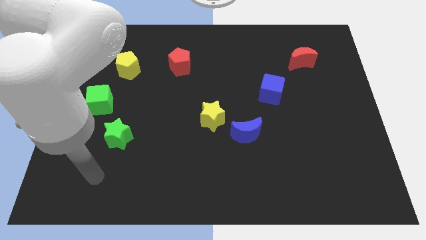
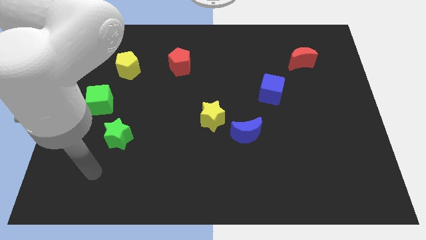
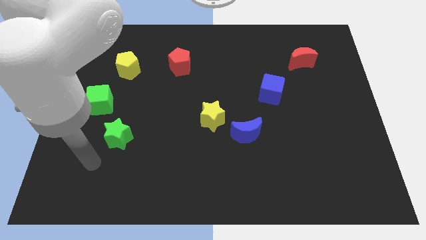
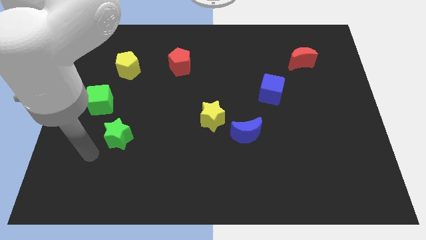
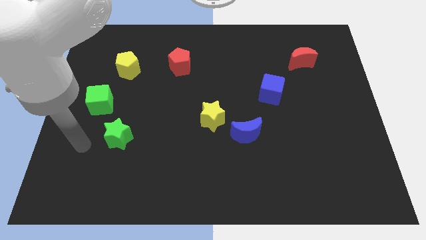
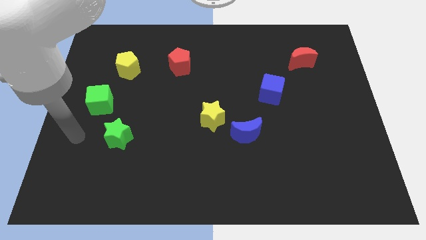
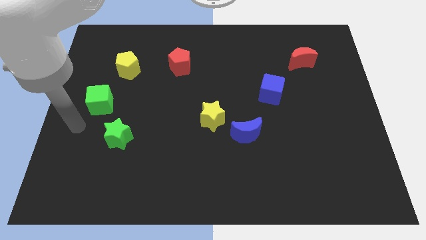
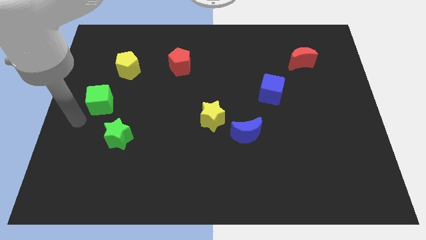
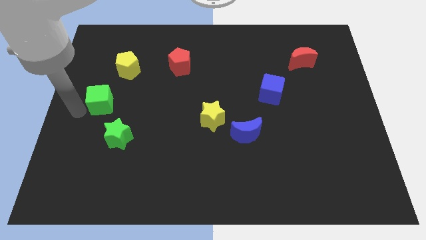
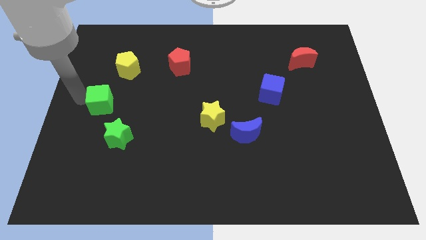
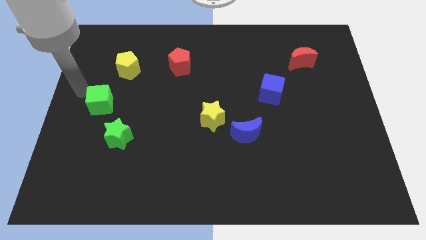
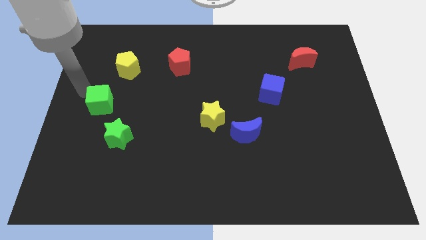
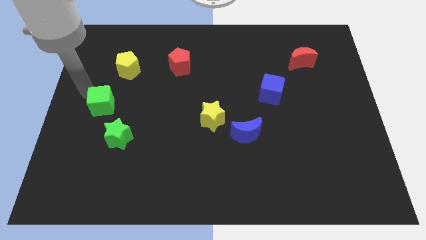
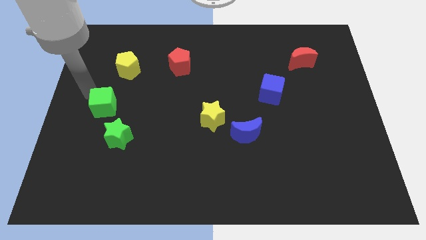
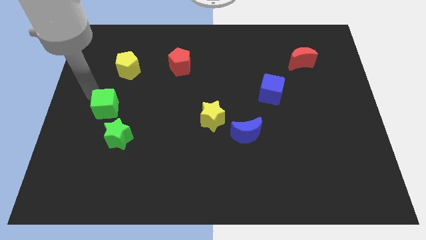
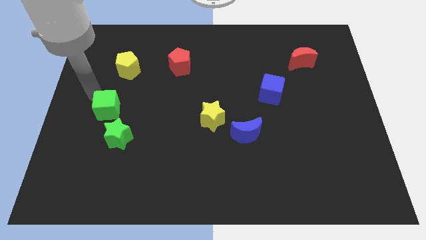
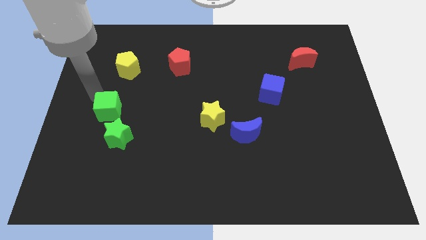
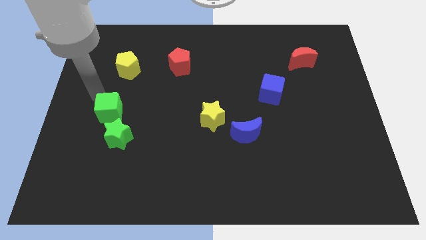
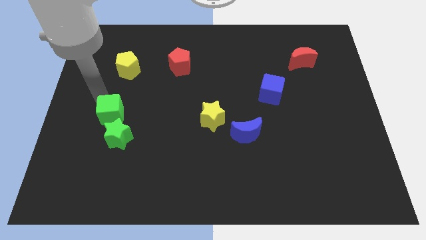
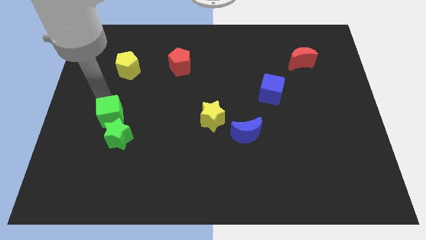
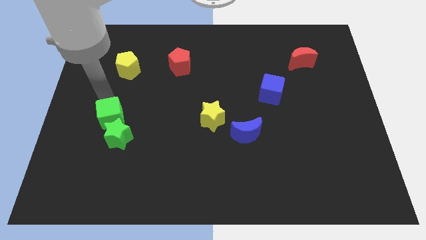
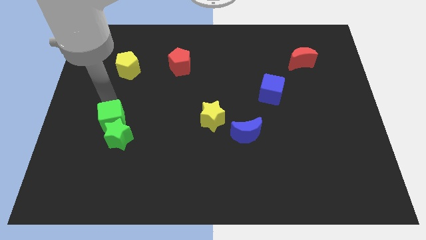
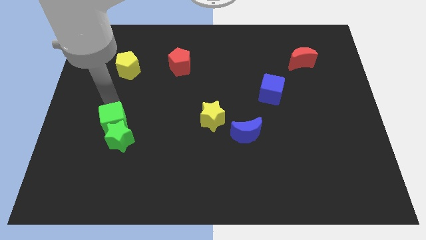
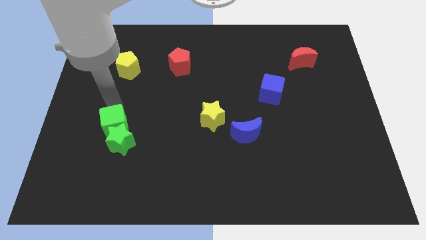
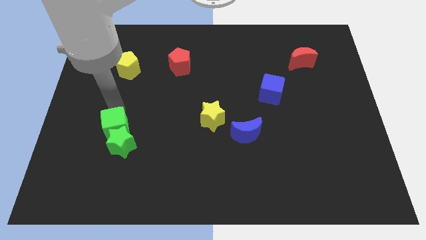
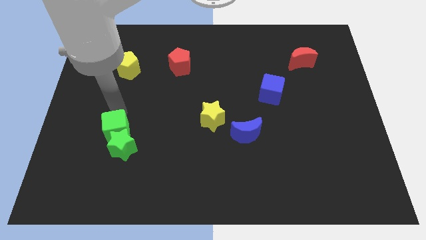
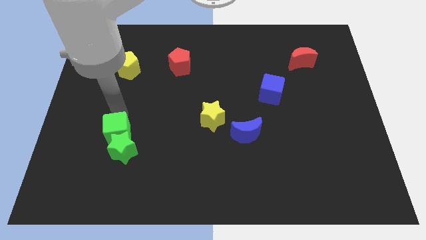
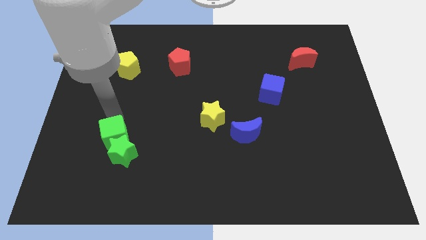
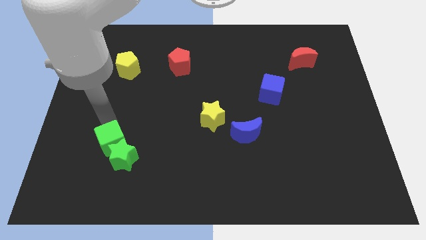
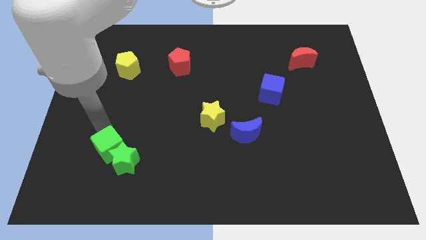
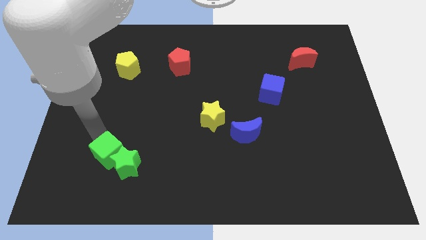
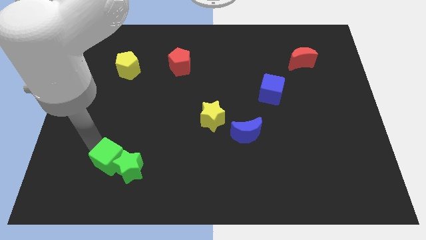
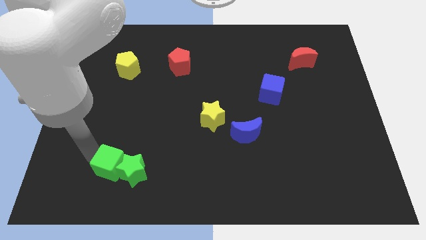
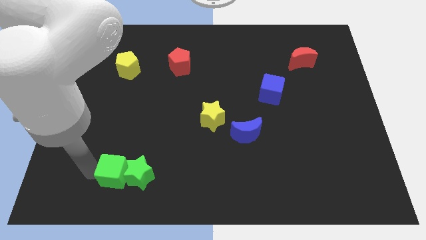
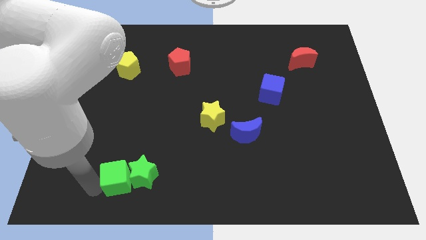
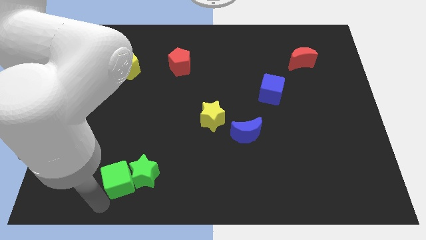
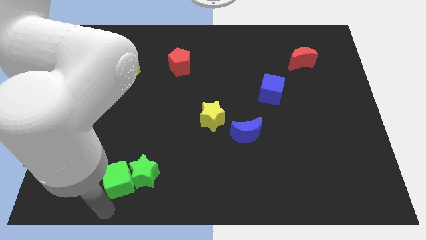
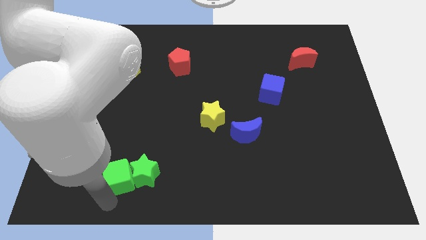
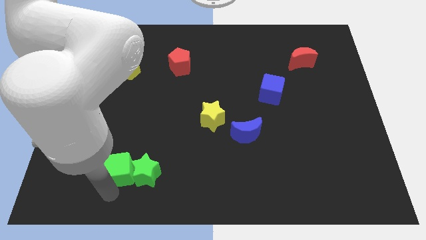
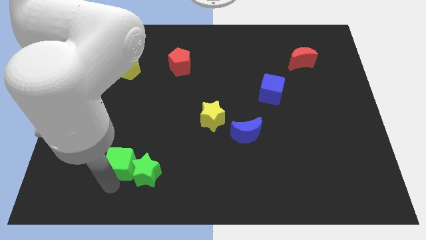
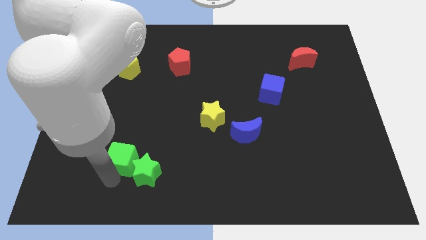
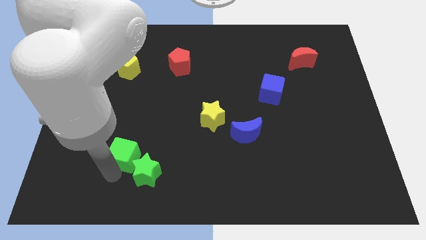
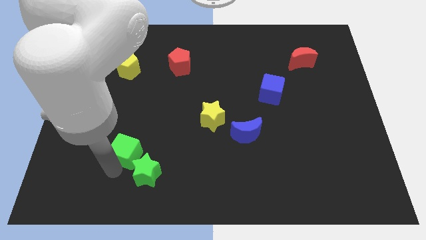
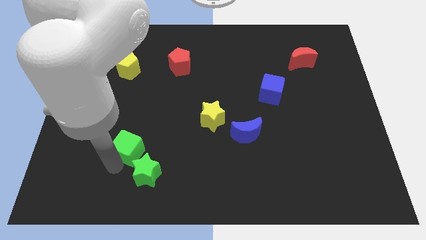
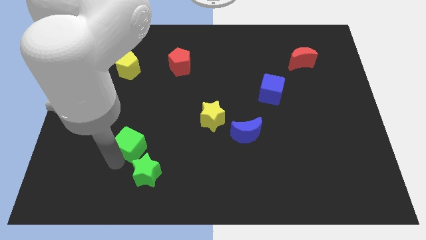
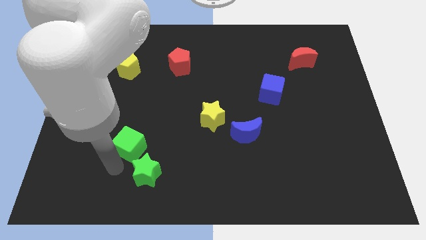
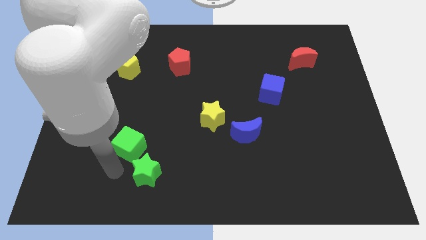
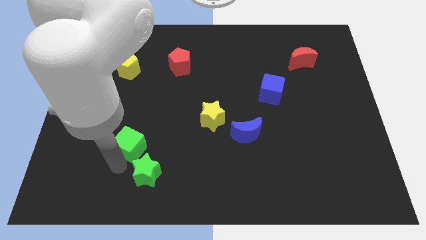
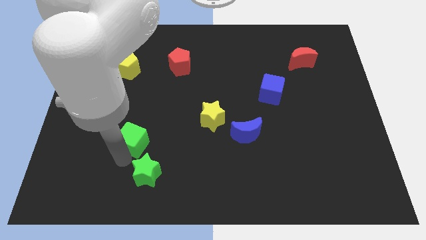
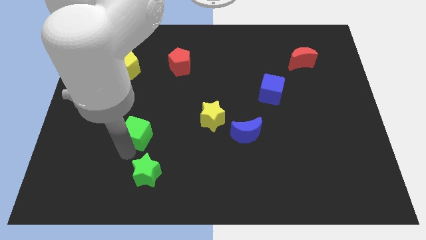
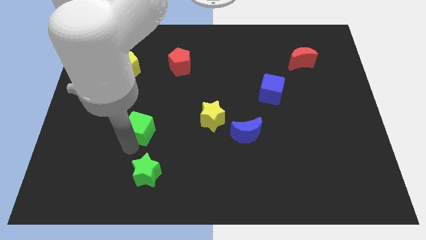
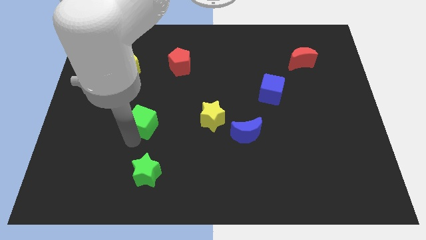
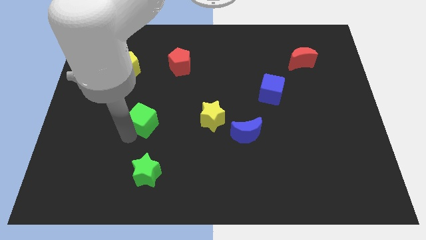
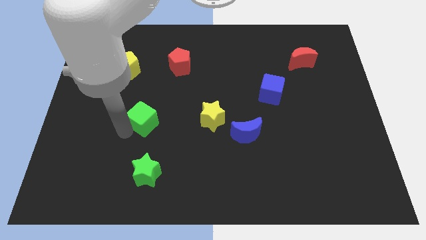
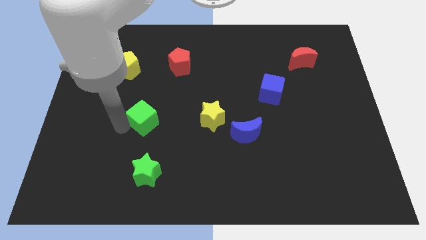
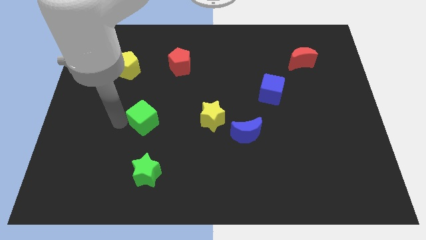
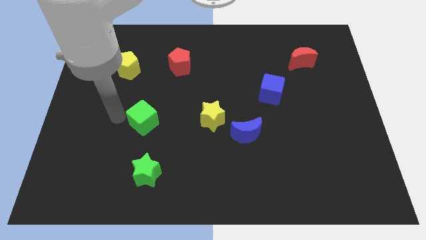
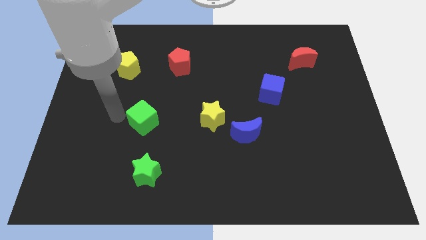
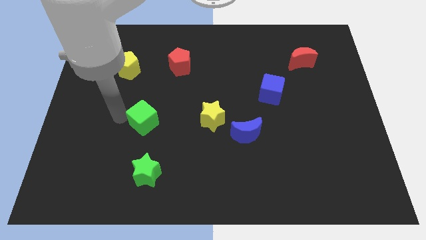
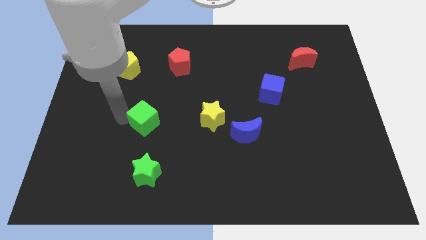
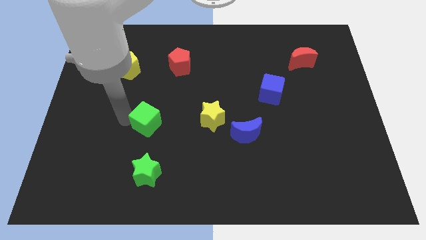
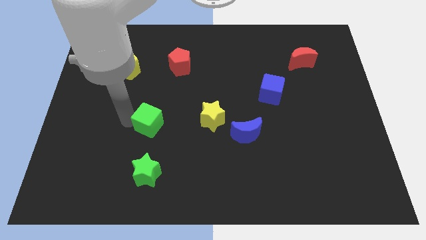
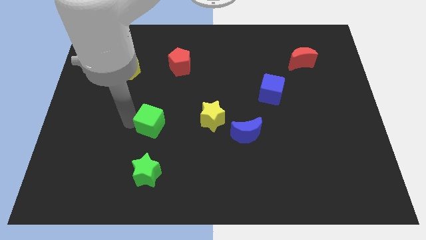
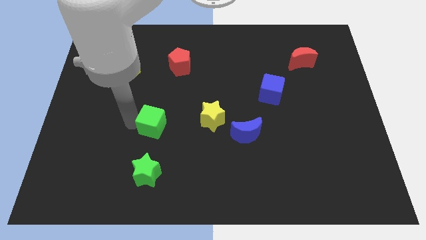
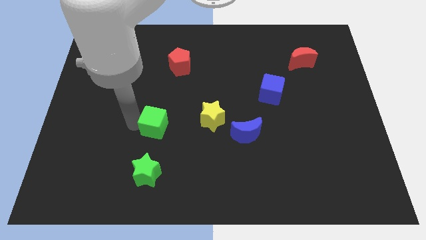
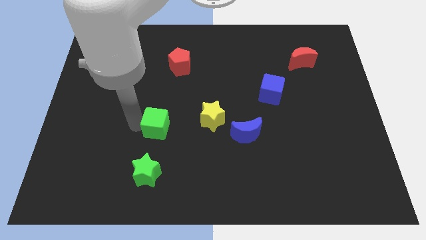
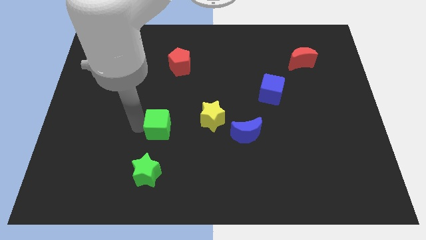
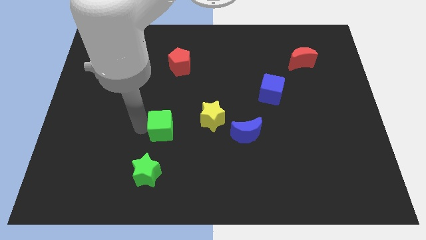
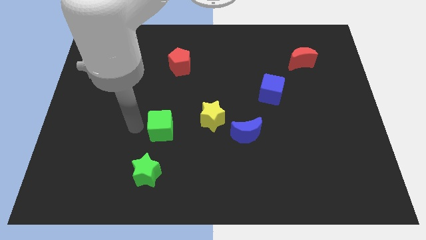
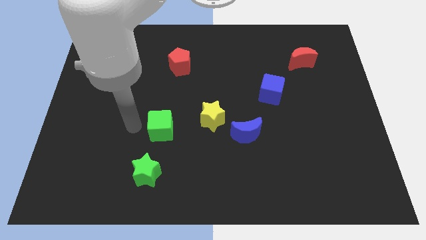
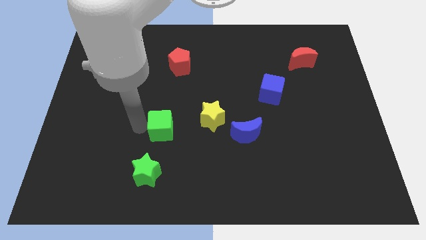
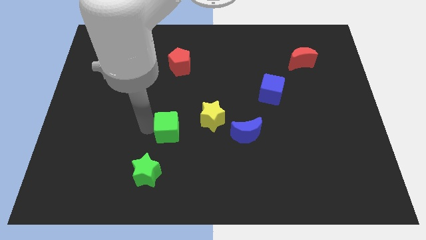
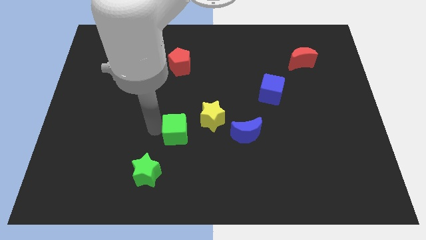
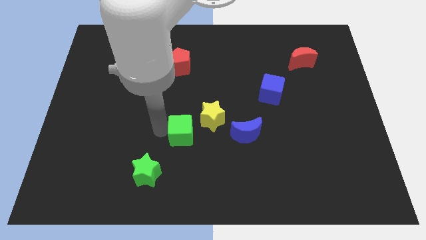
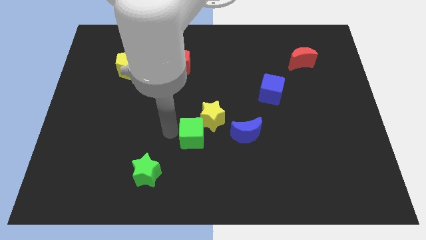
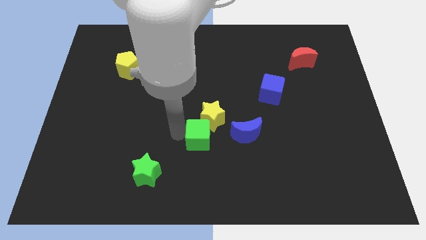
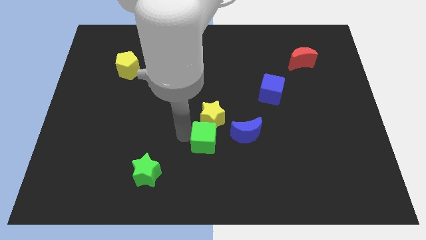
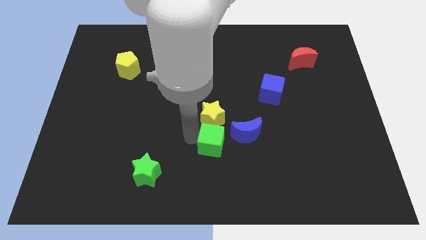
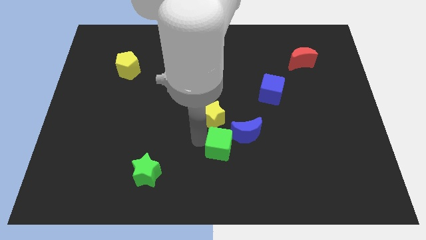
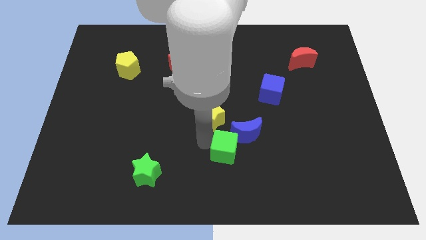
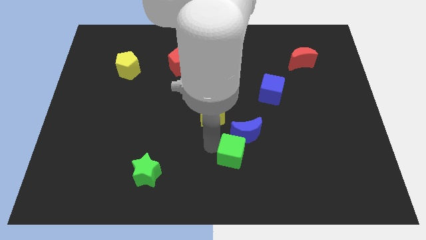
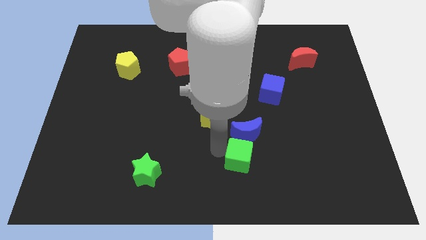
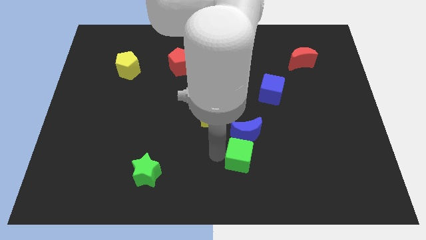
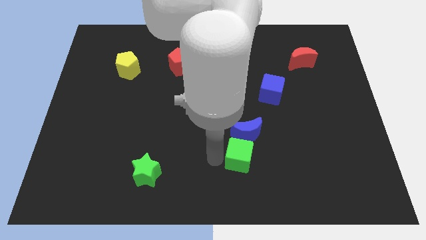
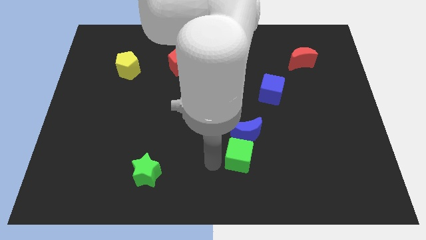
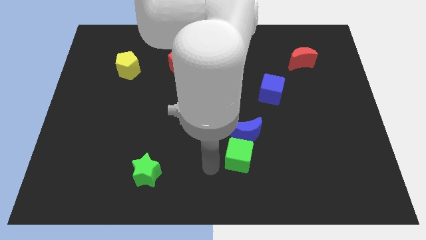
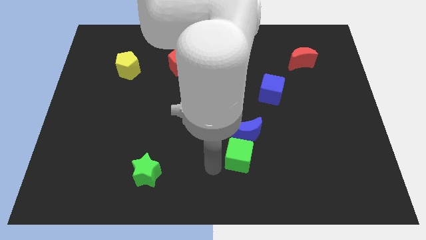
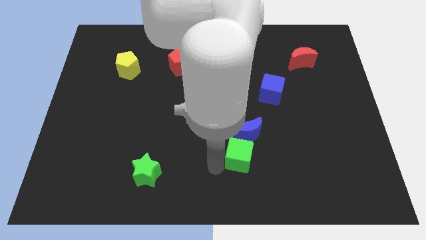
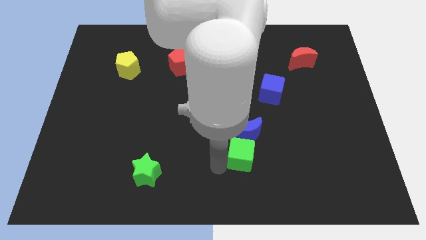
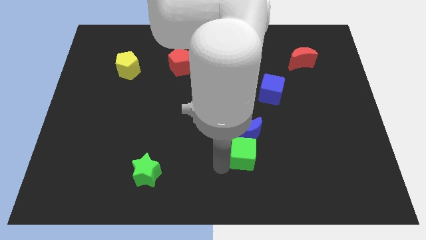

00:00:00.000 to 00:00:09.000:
push the green cube diagonally down and to the right of the blue moon
